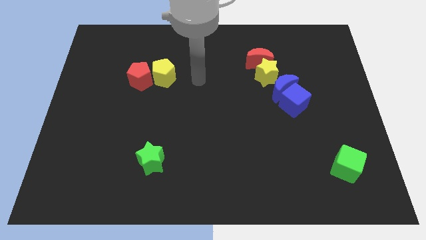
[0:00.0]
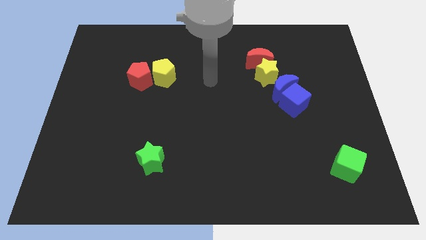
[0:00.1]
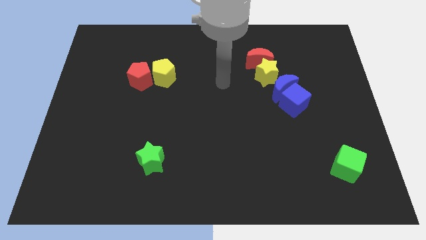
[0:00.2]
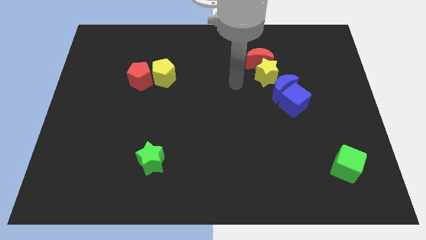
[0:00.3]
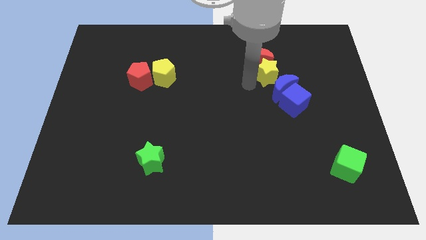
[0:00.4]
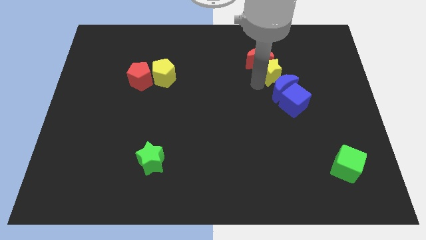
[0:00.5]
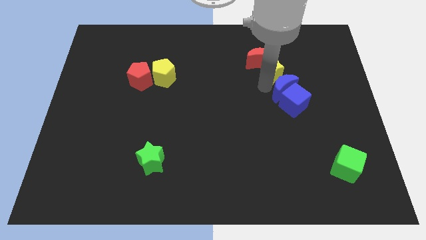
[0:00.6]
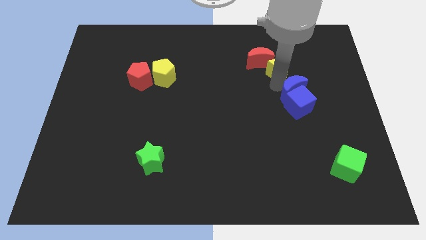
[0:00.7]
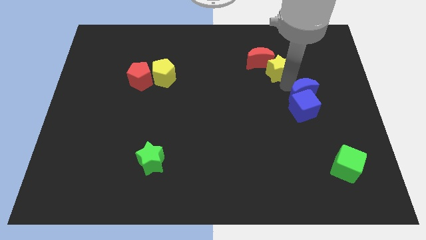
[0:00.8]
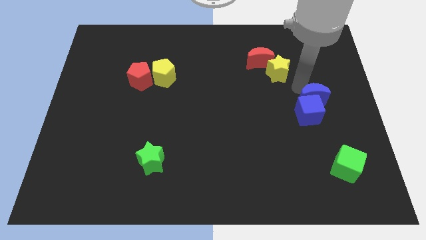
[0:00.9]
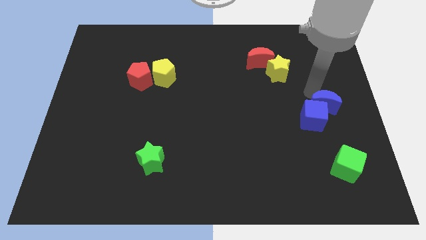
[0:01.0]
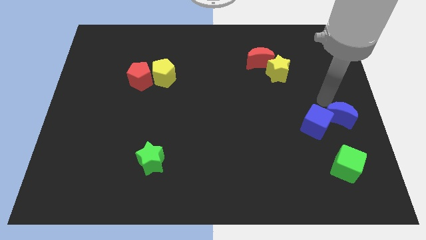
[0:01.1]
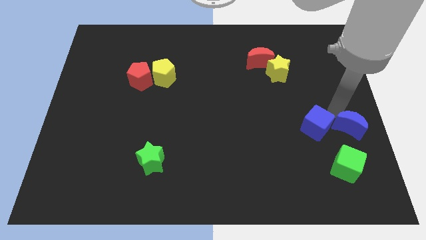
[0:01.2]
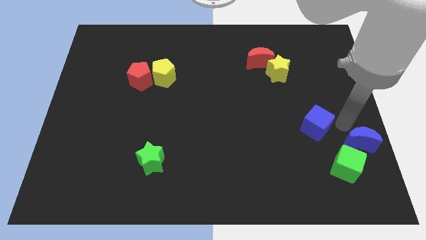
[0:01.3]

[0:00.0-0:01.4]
move the blue cube away from the blue moon

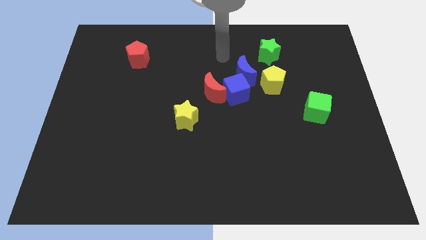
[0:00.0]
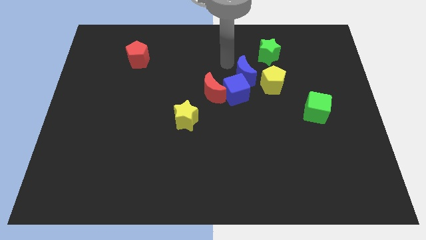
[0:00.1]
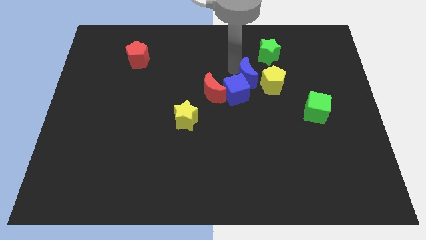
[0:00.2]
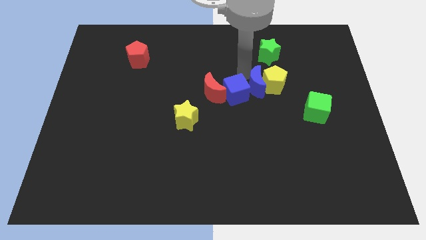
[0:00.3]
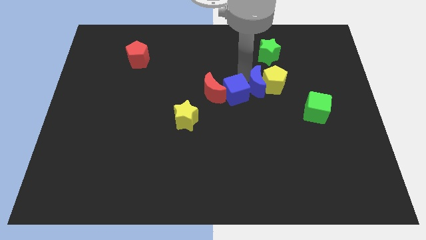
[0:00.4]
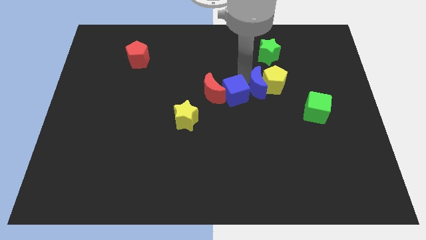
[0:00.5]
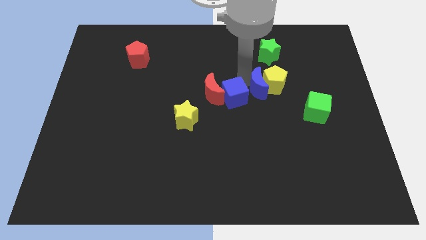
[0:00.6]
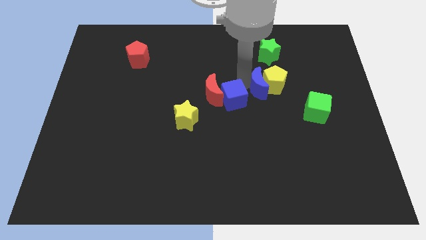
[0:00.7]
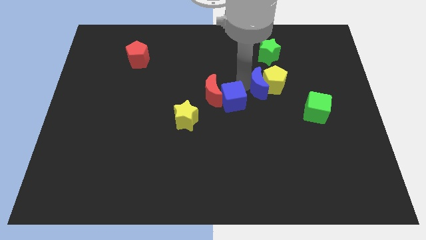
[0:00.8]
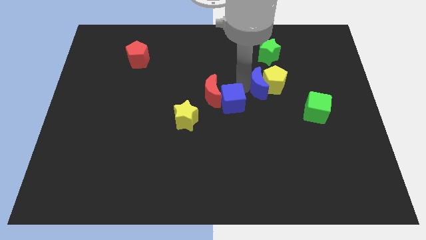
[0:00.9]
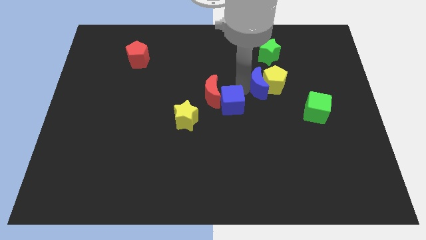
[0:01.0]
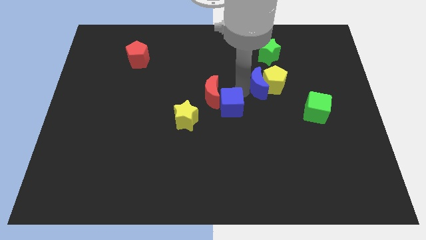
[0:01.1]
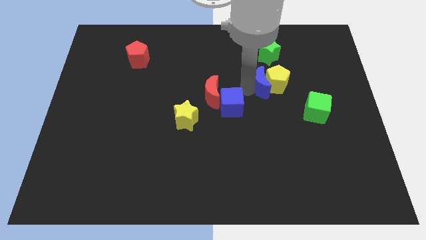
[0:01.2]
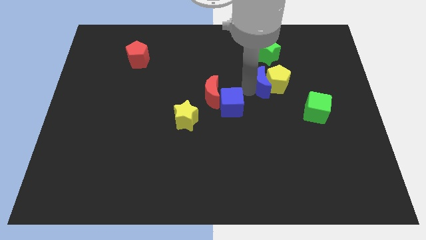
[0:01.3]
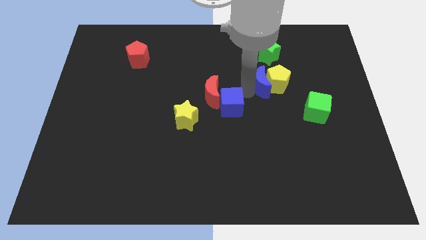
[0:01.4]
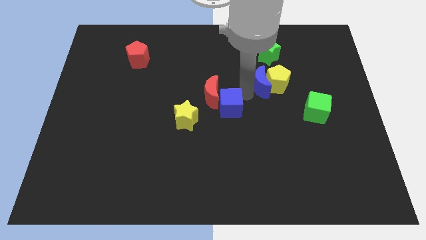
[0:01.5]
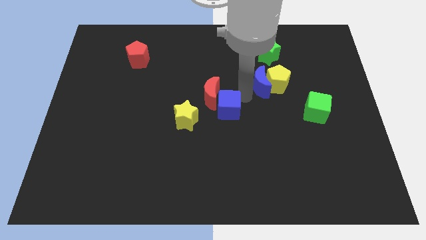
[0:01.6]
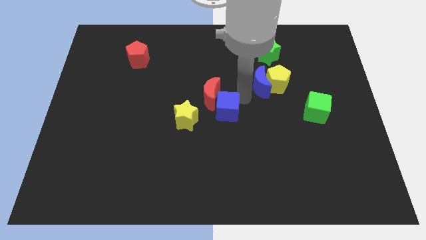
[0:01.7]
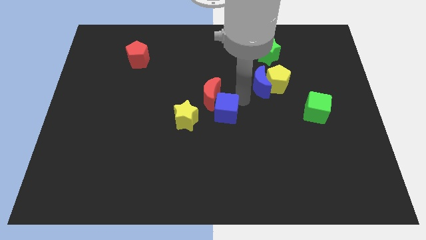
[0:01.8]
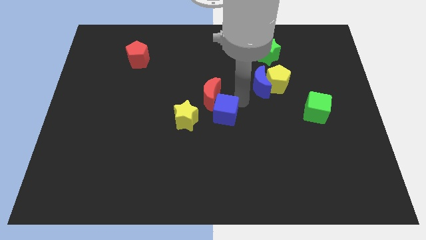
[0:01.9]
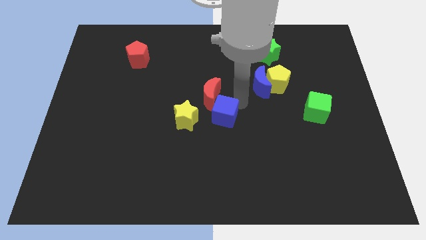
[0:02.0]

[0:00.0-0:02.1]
separate the blue cube from the red moon, blue moon, and yellow pentagon

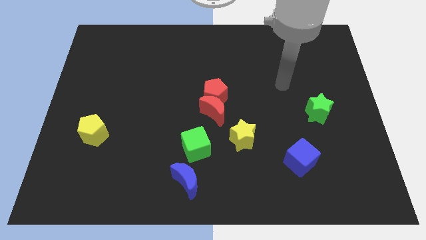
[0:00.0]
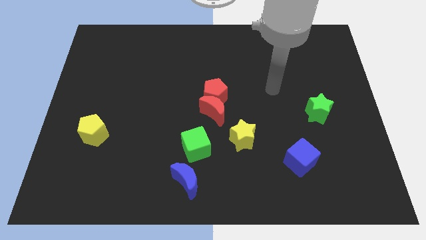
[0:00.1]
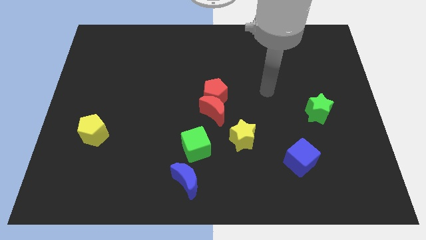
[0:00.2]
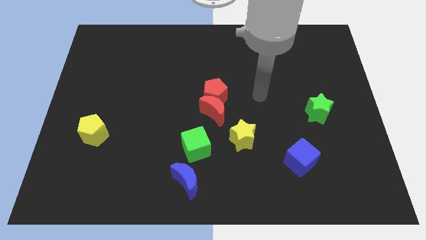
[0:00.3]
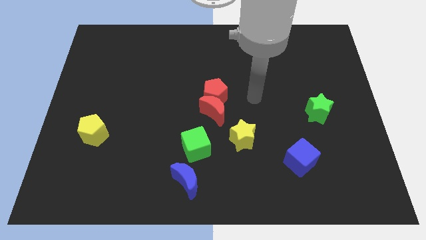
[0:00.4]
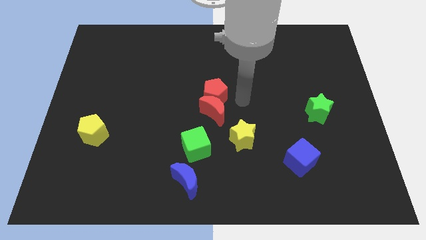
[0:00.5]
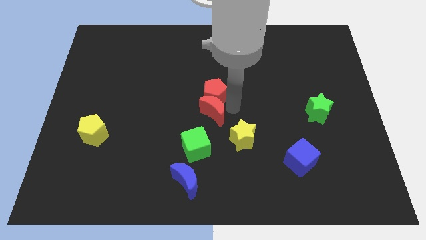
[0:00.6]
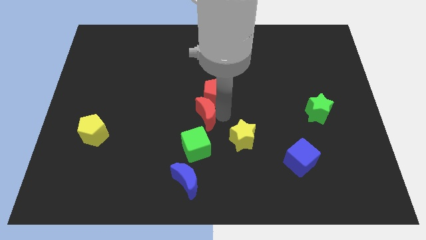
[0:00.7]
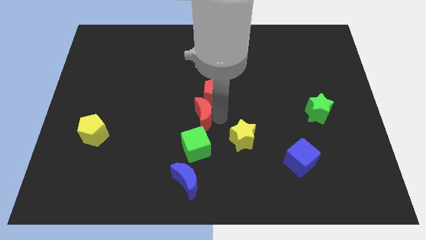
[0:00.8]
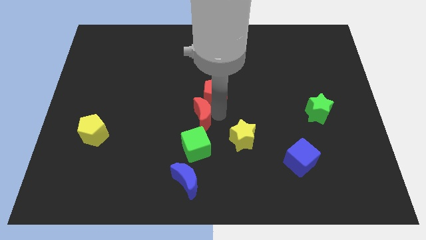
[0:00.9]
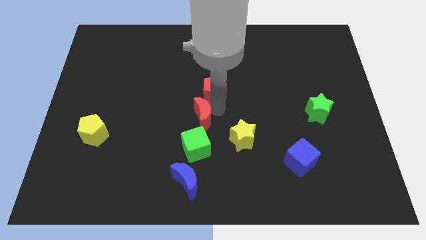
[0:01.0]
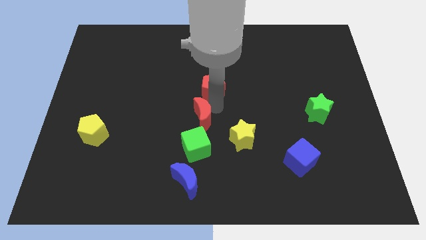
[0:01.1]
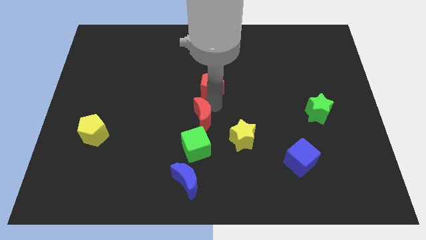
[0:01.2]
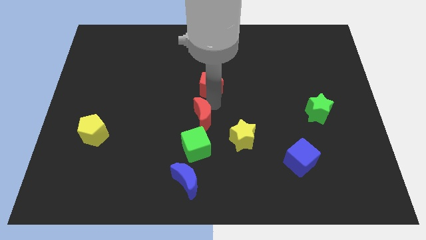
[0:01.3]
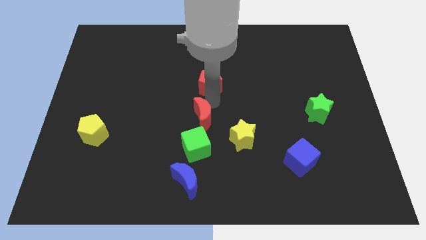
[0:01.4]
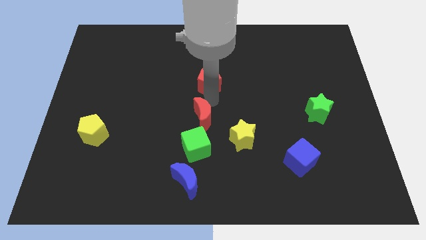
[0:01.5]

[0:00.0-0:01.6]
pull the red pentagon apart from the red moon

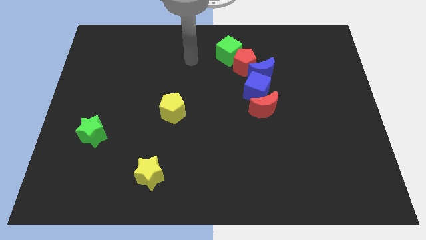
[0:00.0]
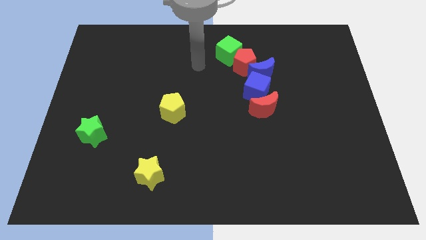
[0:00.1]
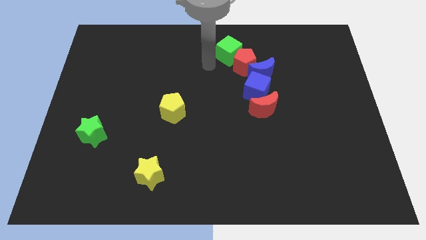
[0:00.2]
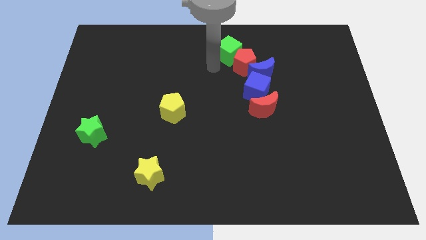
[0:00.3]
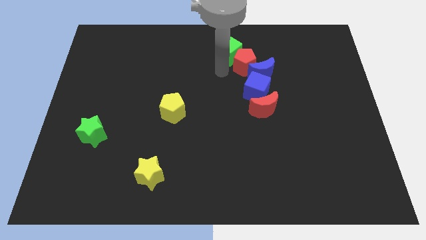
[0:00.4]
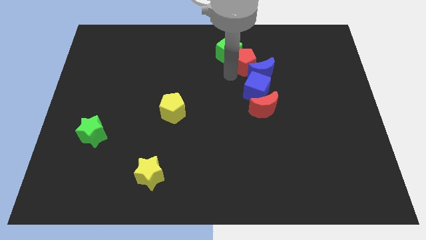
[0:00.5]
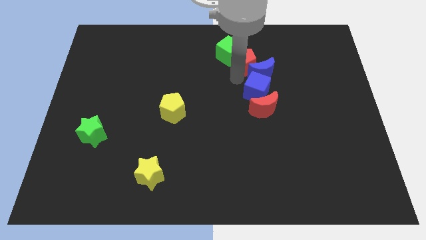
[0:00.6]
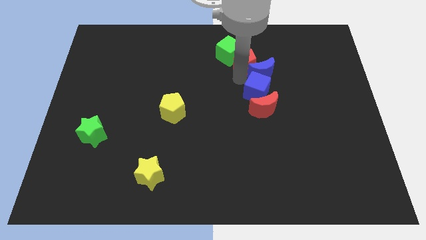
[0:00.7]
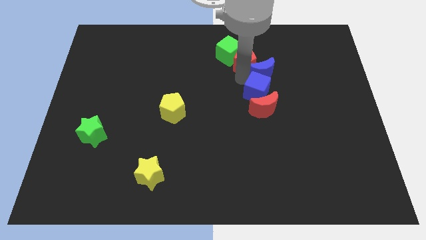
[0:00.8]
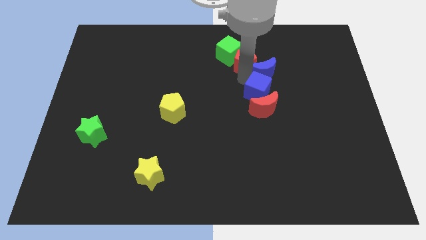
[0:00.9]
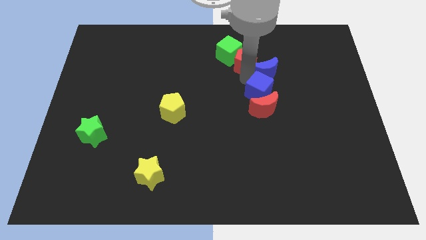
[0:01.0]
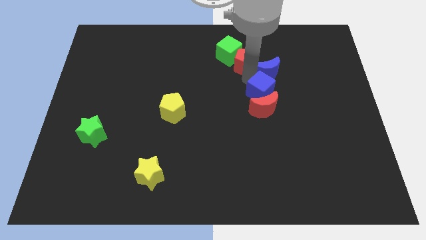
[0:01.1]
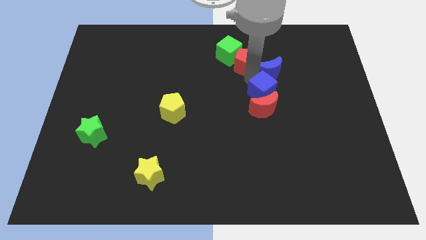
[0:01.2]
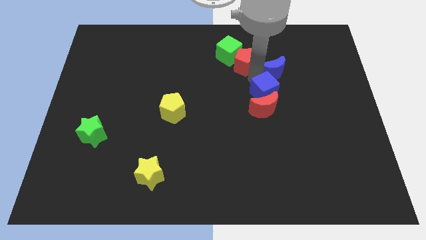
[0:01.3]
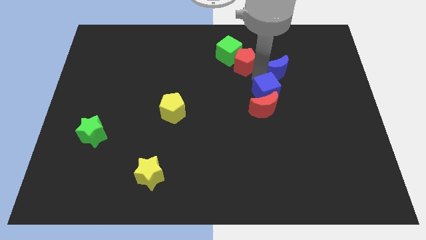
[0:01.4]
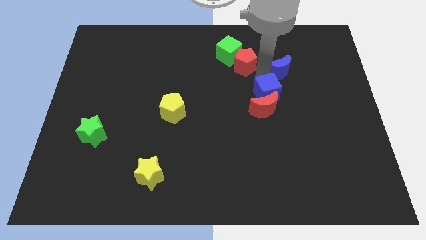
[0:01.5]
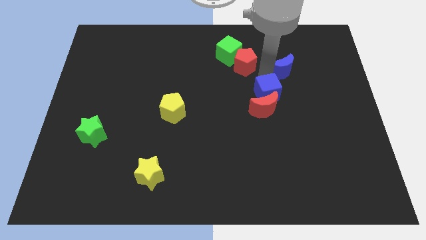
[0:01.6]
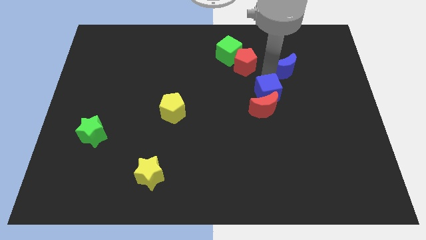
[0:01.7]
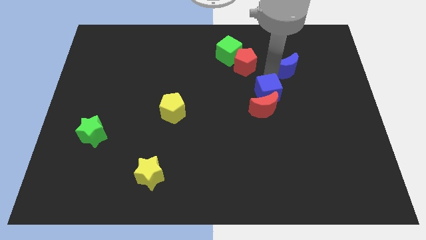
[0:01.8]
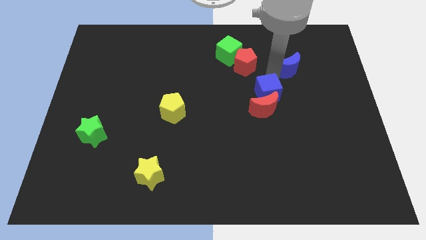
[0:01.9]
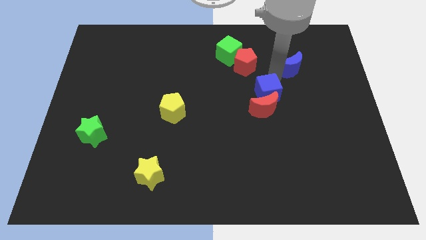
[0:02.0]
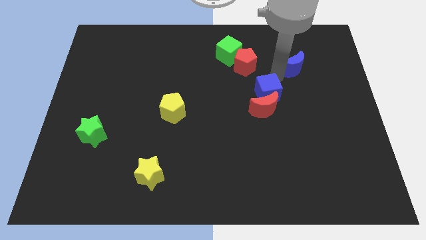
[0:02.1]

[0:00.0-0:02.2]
pull the blue moon apart from the red pentagon and blue cube

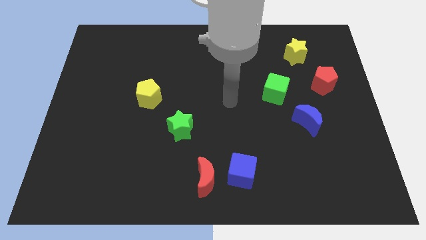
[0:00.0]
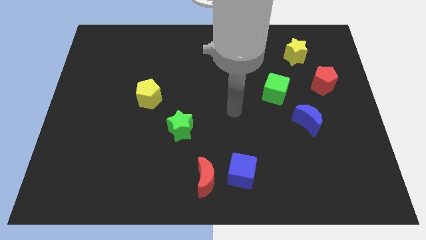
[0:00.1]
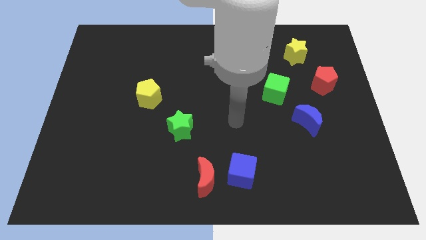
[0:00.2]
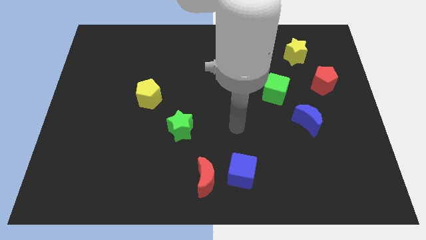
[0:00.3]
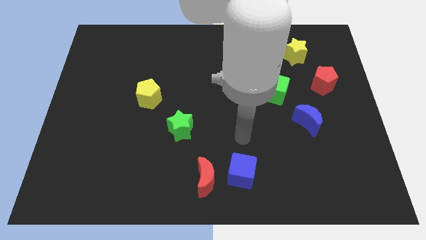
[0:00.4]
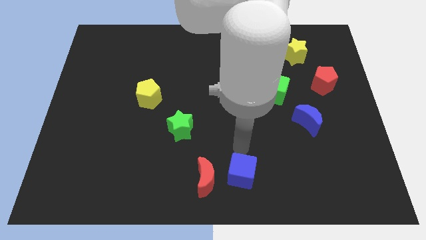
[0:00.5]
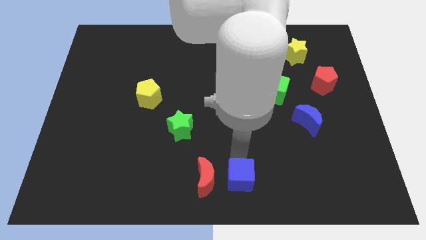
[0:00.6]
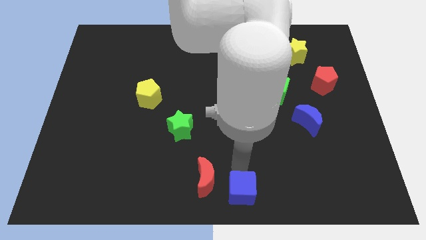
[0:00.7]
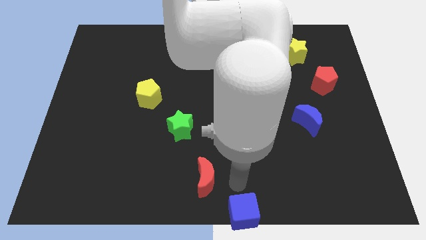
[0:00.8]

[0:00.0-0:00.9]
separate the red moon from the blue cube

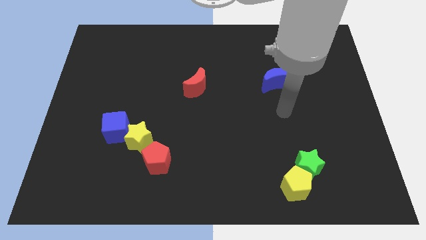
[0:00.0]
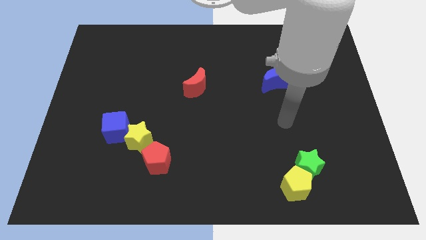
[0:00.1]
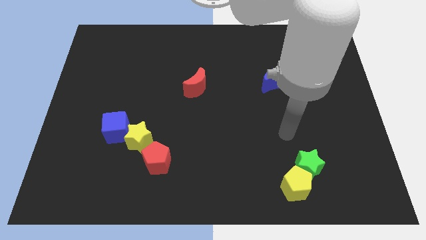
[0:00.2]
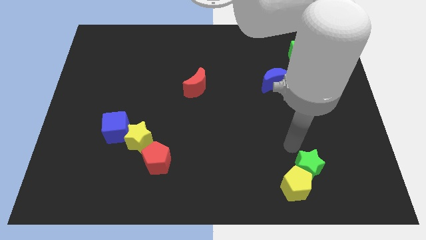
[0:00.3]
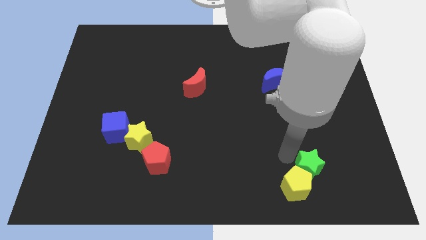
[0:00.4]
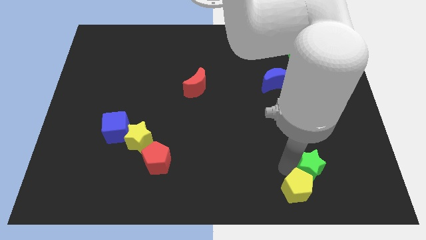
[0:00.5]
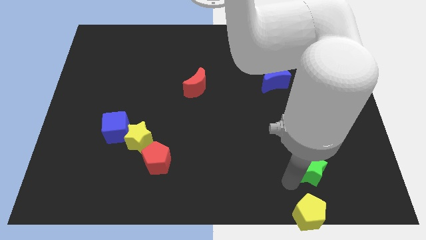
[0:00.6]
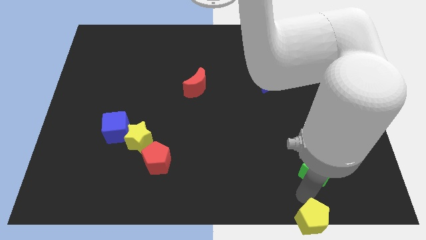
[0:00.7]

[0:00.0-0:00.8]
pull the green star apart from the yellow pentagon

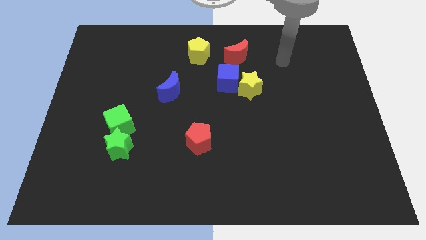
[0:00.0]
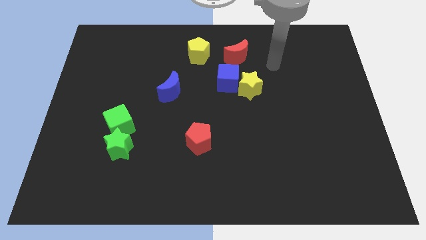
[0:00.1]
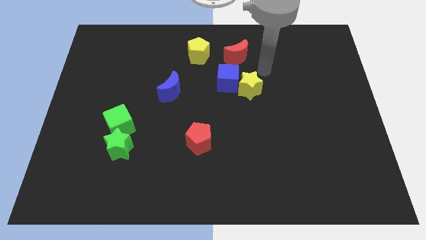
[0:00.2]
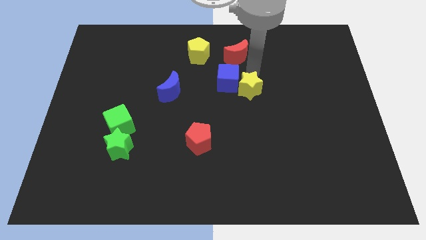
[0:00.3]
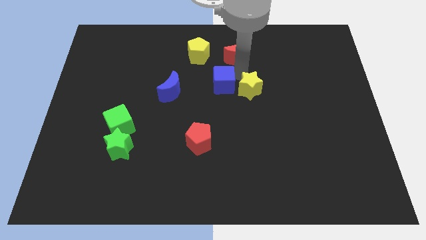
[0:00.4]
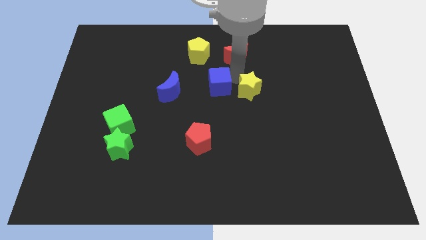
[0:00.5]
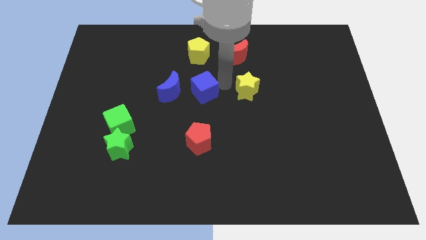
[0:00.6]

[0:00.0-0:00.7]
pull the yellow star apart from the blue cube
